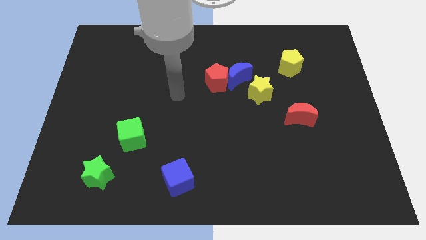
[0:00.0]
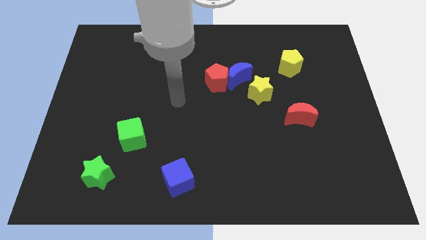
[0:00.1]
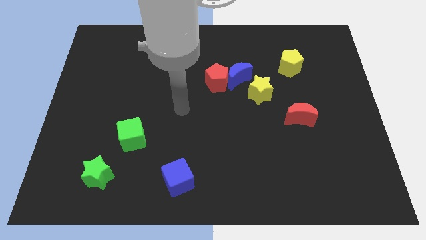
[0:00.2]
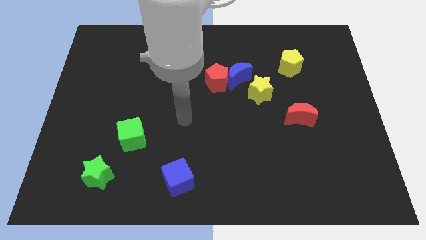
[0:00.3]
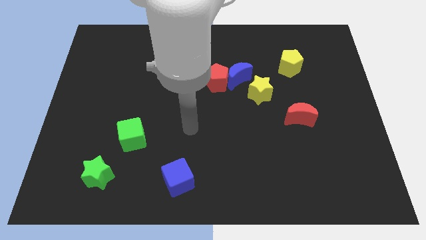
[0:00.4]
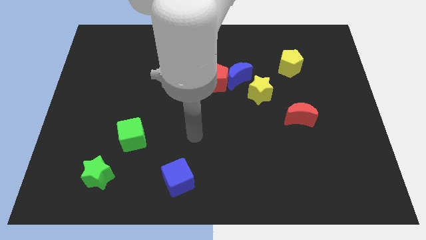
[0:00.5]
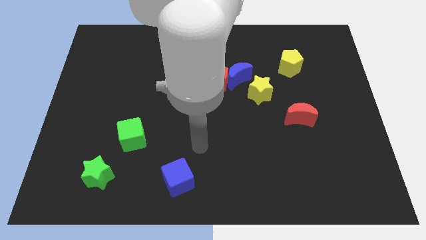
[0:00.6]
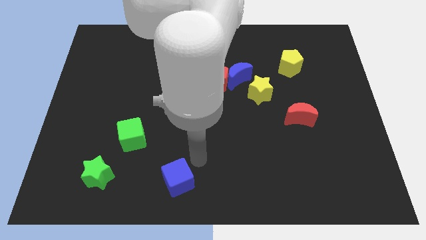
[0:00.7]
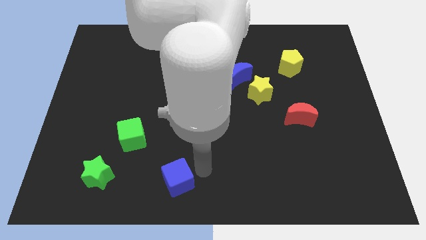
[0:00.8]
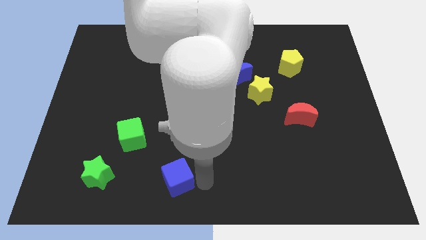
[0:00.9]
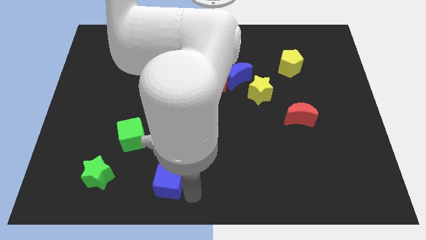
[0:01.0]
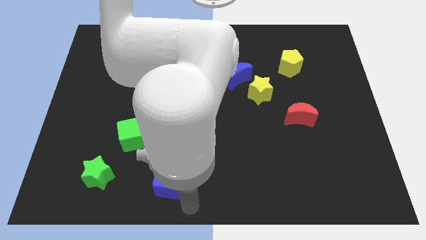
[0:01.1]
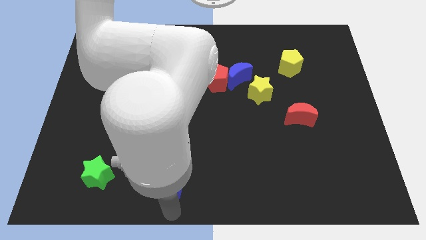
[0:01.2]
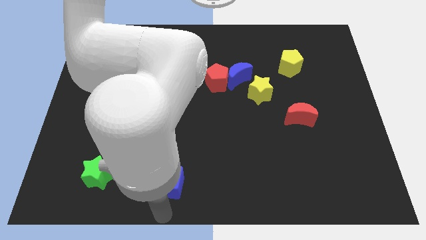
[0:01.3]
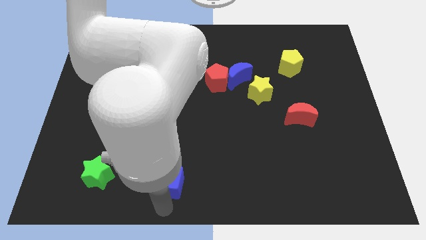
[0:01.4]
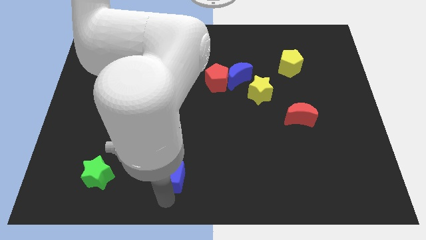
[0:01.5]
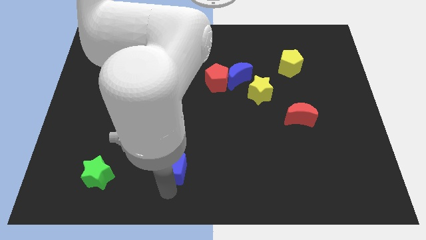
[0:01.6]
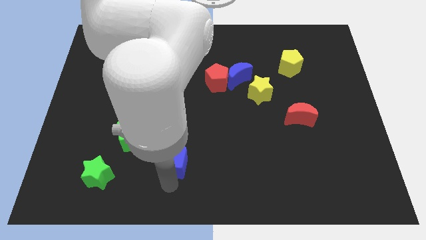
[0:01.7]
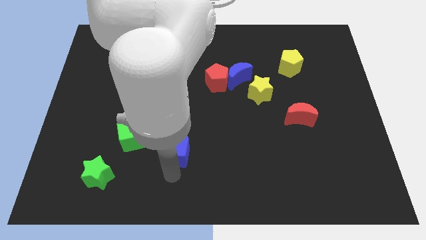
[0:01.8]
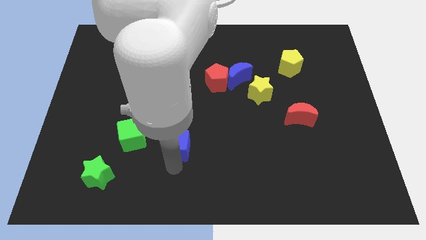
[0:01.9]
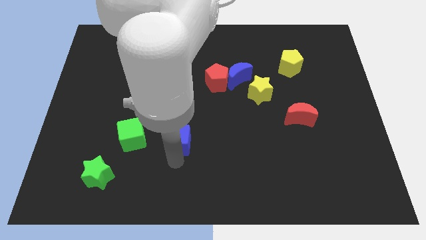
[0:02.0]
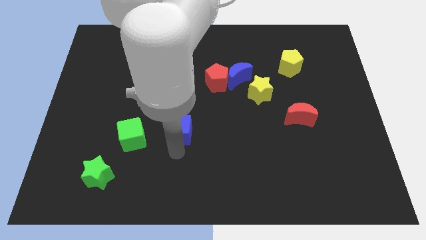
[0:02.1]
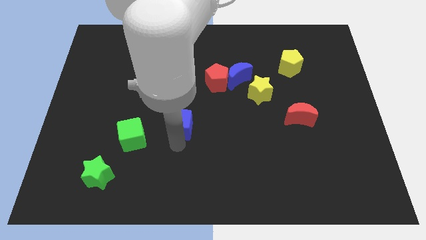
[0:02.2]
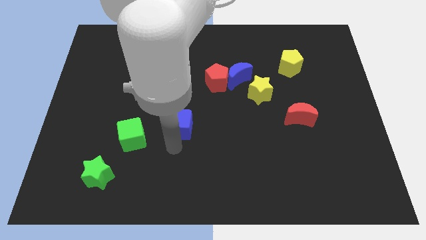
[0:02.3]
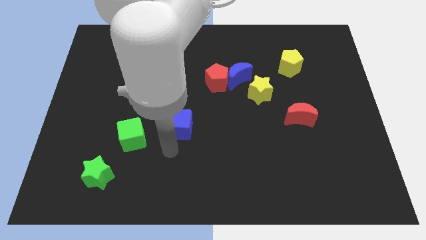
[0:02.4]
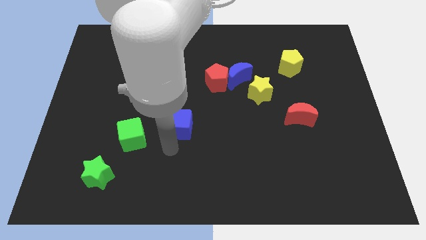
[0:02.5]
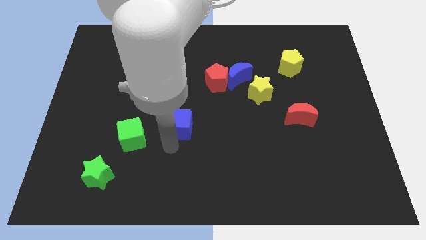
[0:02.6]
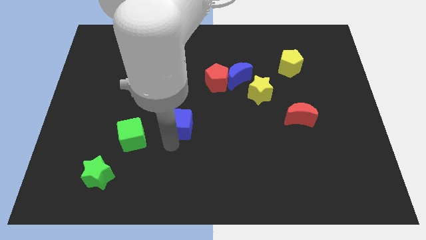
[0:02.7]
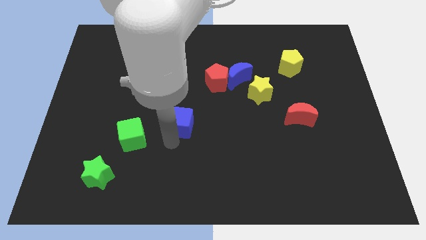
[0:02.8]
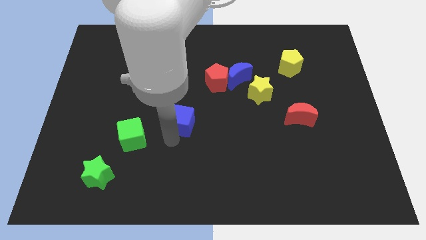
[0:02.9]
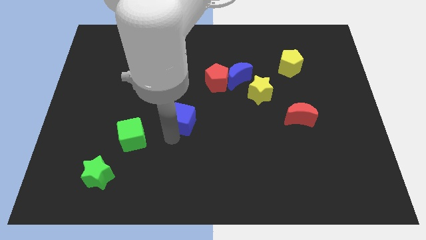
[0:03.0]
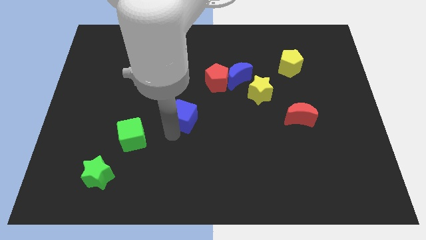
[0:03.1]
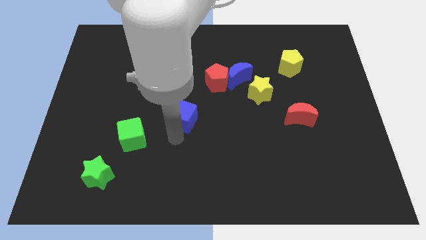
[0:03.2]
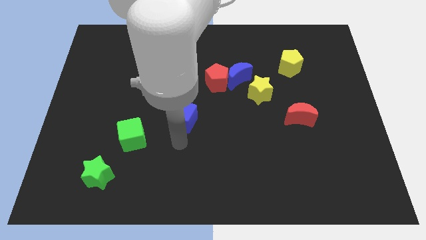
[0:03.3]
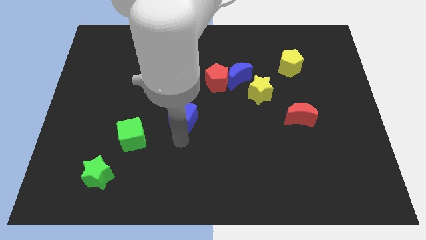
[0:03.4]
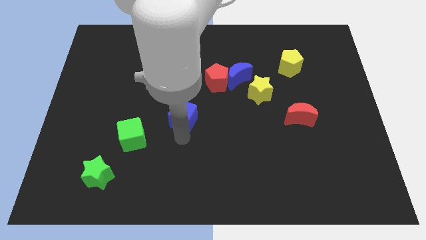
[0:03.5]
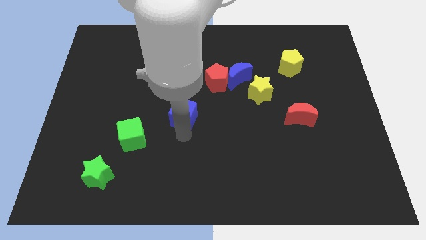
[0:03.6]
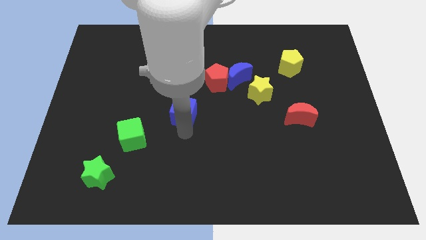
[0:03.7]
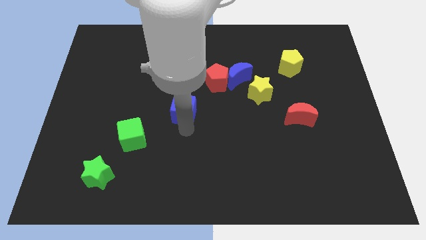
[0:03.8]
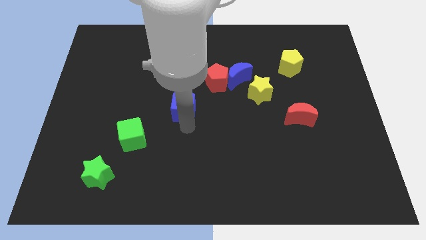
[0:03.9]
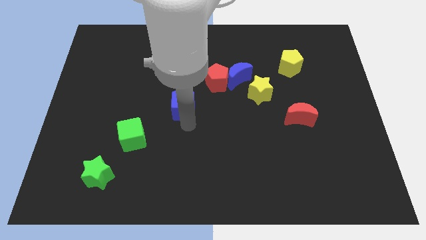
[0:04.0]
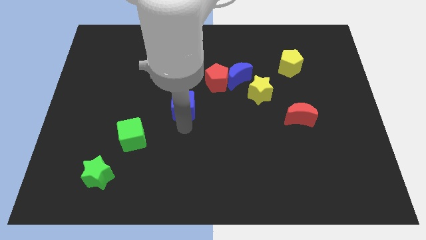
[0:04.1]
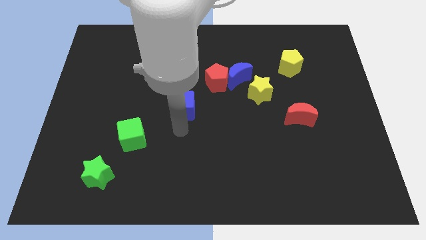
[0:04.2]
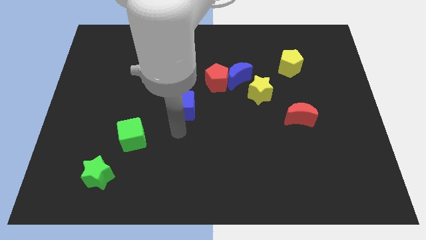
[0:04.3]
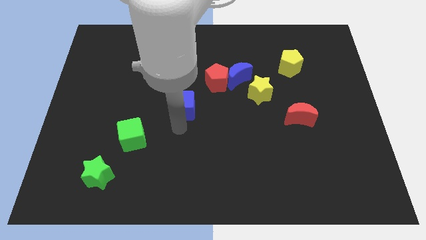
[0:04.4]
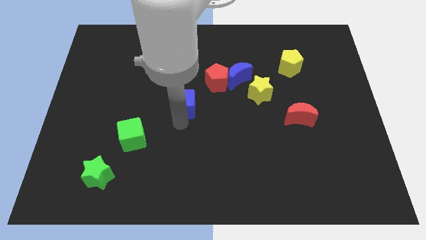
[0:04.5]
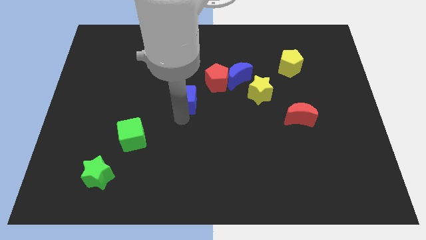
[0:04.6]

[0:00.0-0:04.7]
move the blue cube up

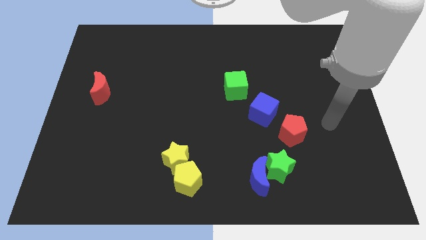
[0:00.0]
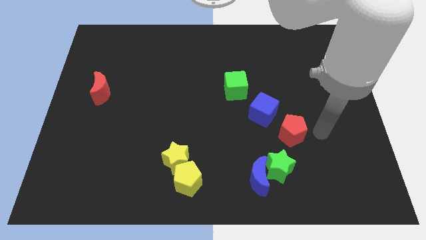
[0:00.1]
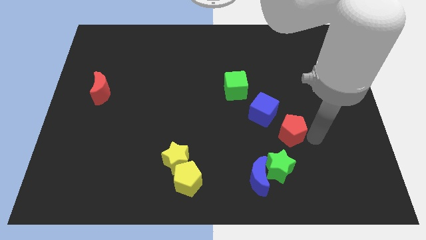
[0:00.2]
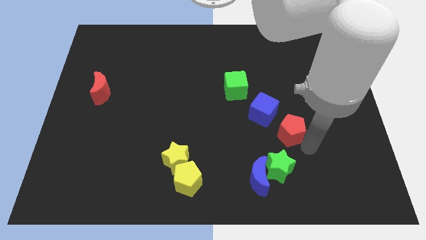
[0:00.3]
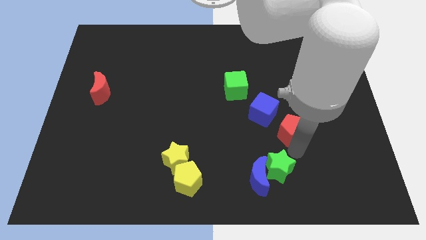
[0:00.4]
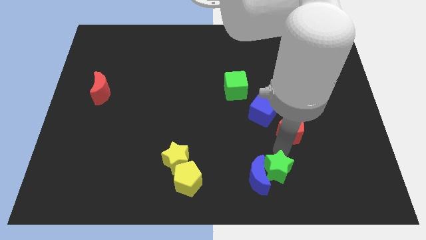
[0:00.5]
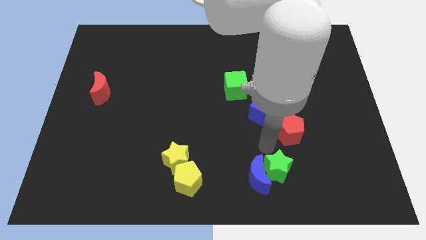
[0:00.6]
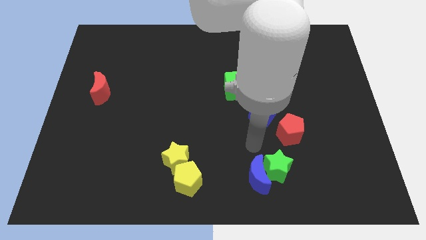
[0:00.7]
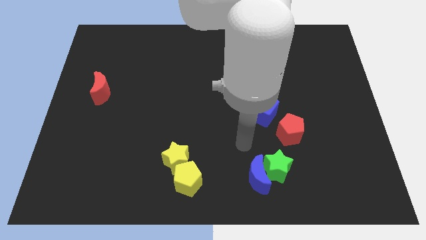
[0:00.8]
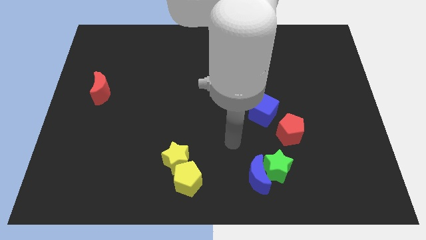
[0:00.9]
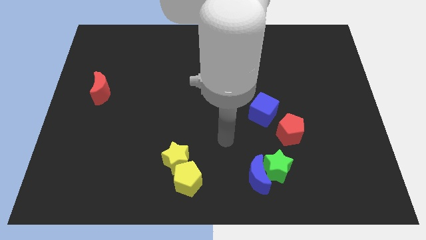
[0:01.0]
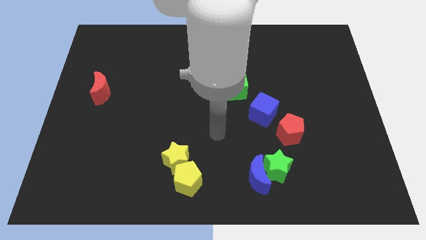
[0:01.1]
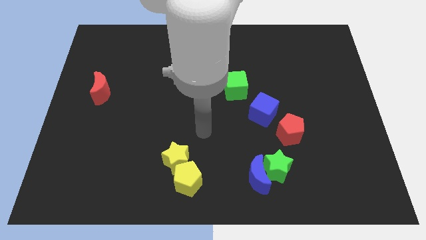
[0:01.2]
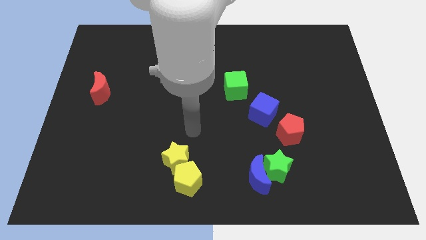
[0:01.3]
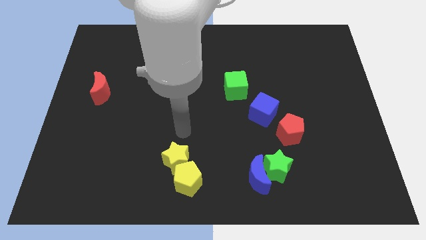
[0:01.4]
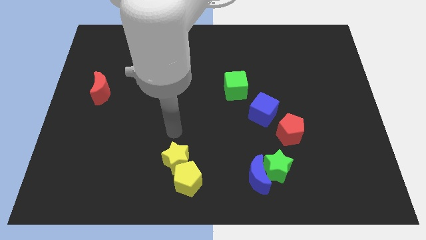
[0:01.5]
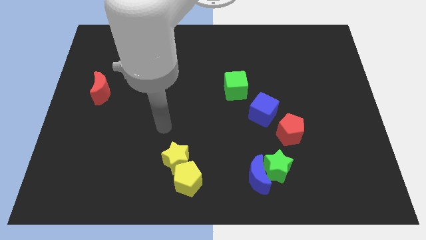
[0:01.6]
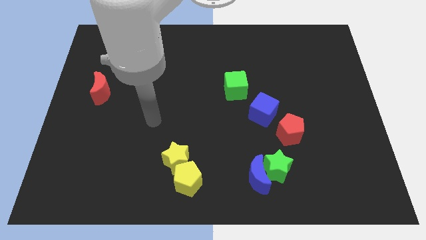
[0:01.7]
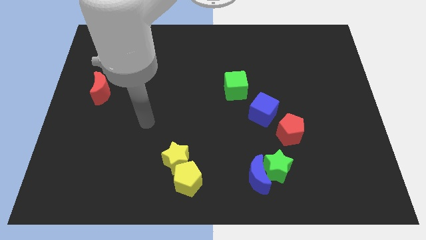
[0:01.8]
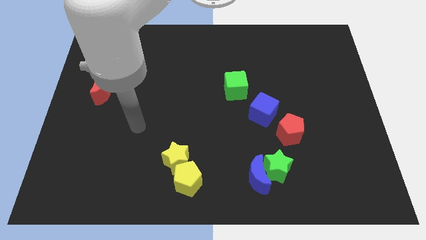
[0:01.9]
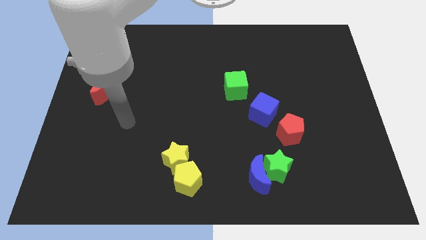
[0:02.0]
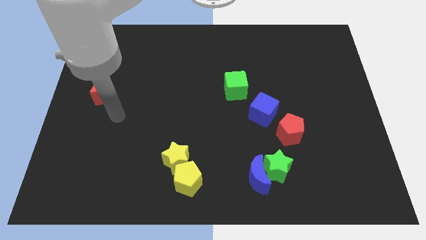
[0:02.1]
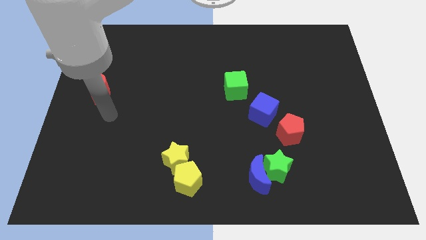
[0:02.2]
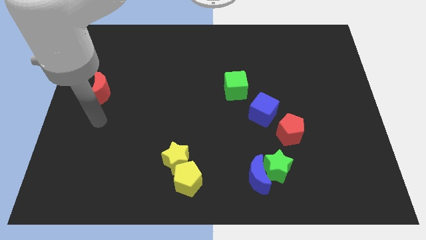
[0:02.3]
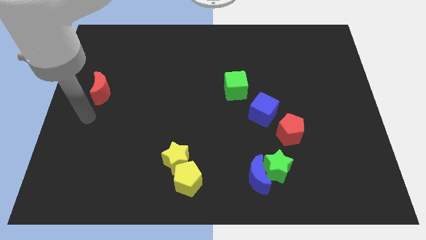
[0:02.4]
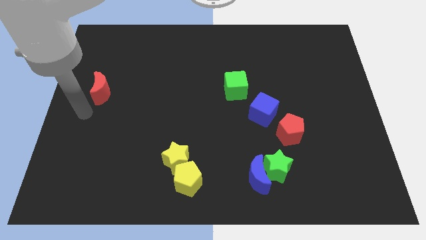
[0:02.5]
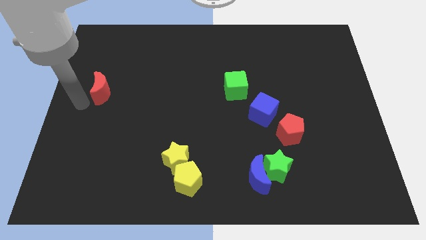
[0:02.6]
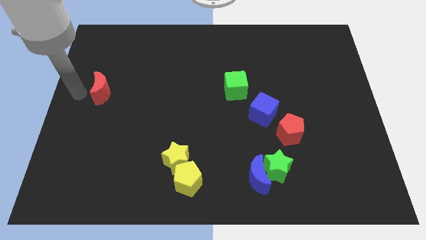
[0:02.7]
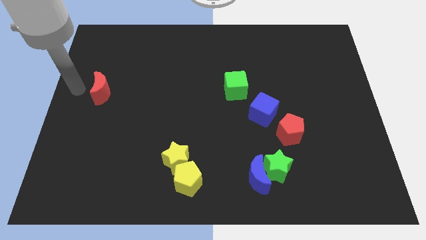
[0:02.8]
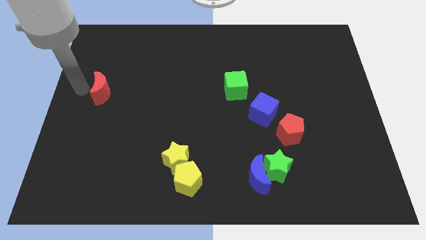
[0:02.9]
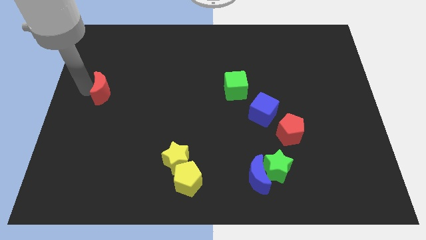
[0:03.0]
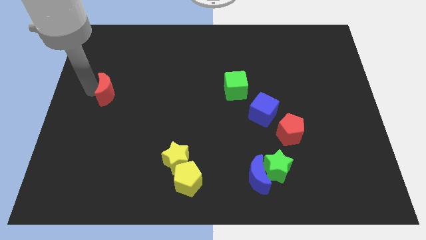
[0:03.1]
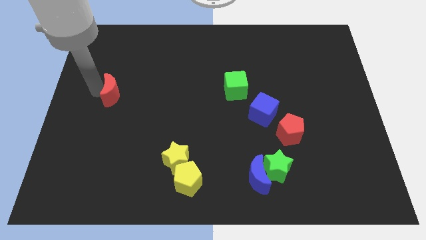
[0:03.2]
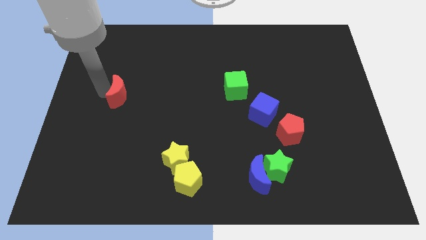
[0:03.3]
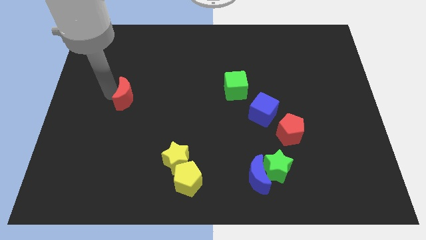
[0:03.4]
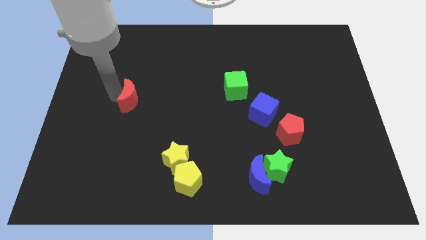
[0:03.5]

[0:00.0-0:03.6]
move the red moon right somewhat
